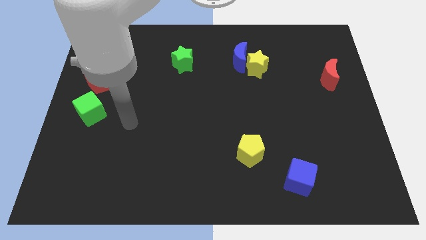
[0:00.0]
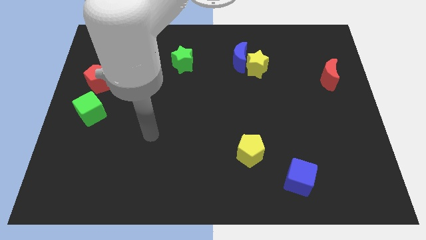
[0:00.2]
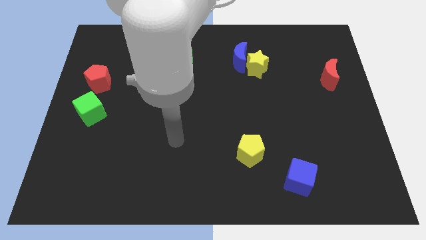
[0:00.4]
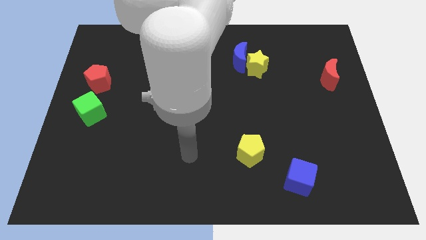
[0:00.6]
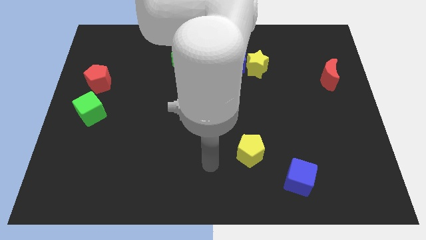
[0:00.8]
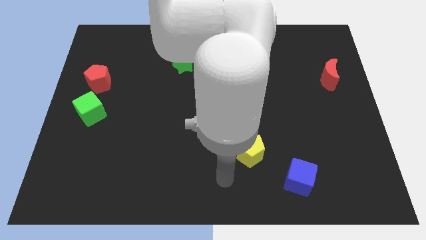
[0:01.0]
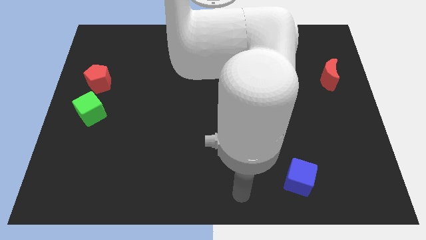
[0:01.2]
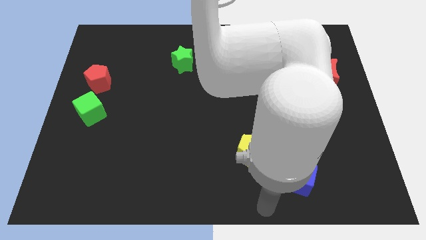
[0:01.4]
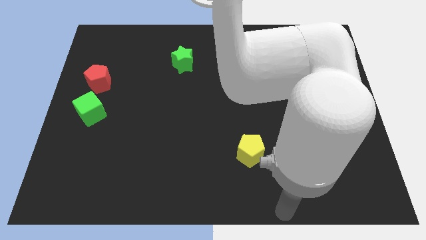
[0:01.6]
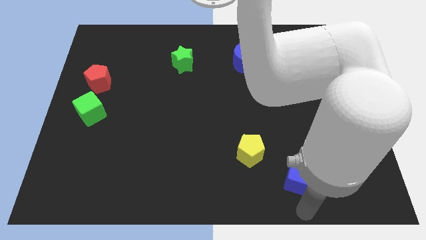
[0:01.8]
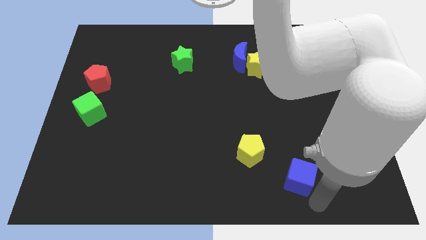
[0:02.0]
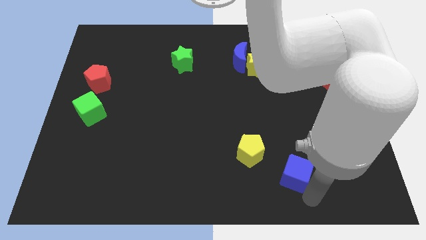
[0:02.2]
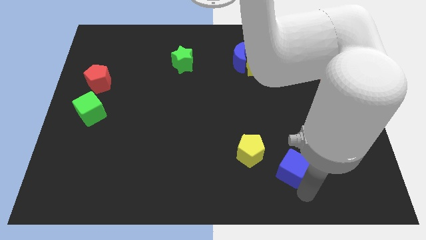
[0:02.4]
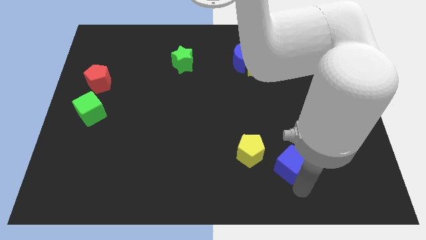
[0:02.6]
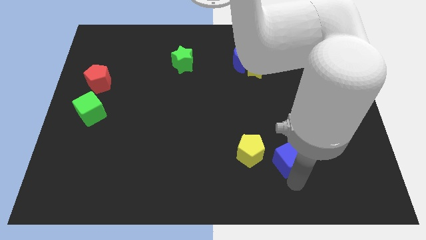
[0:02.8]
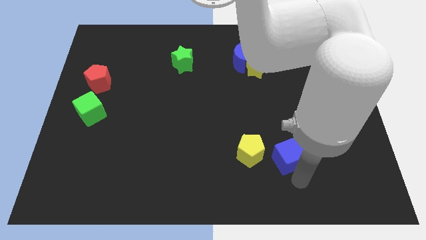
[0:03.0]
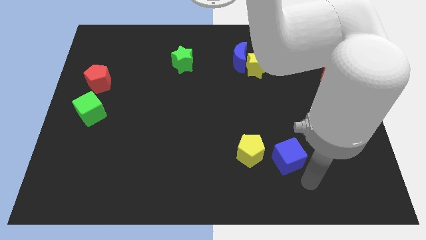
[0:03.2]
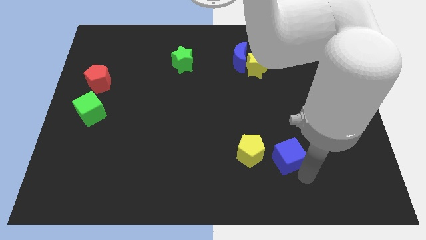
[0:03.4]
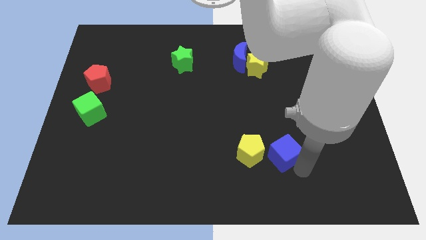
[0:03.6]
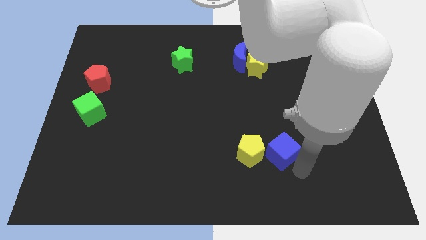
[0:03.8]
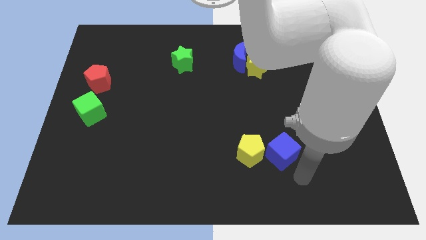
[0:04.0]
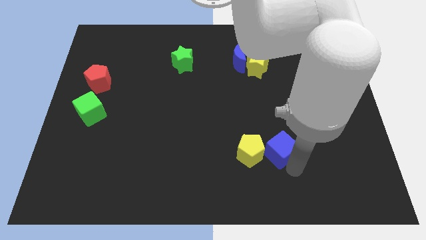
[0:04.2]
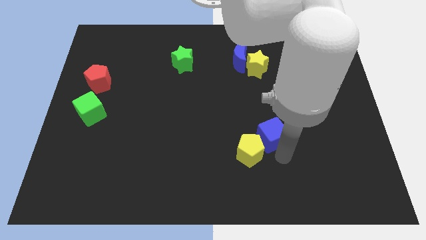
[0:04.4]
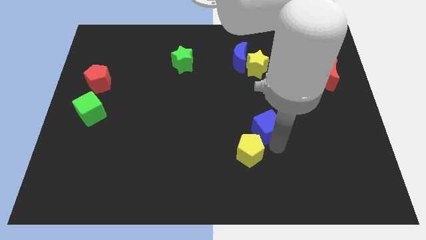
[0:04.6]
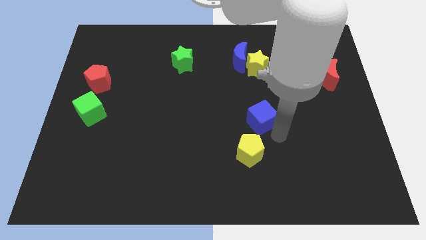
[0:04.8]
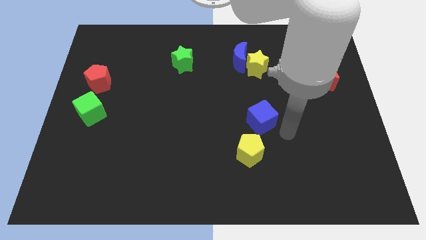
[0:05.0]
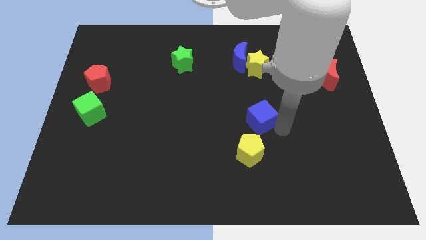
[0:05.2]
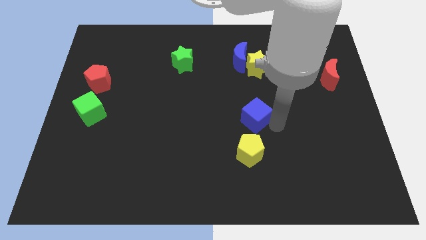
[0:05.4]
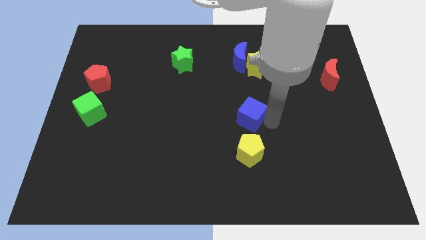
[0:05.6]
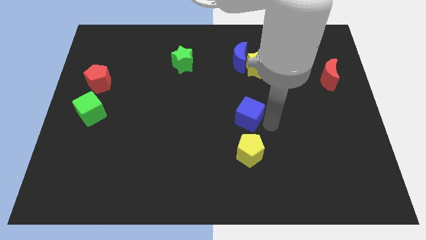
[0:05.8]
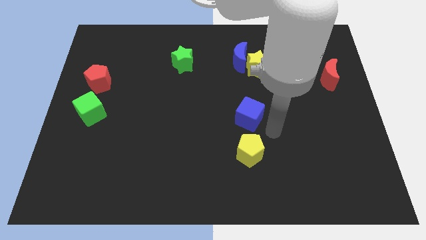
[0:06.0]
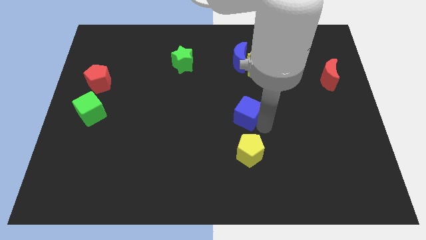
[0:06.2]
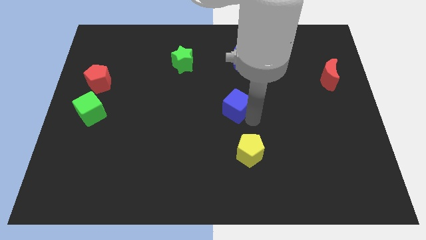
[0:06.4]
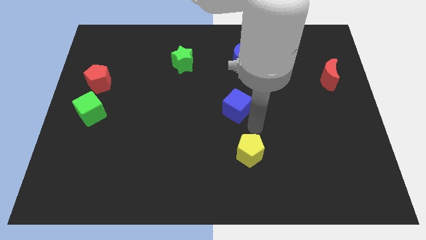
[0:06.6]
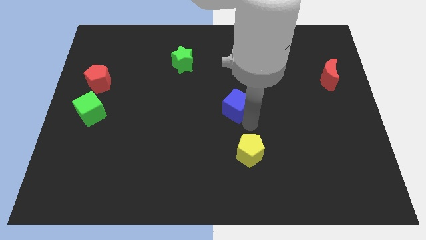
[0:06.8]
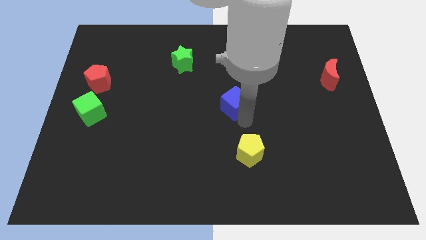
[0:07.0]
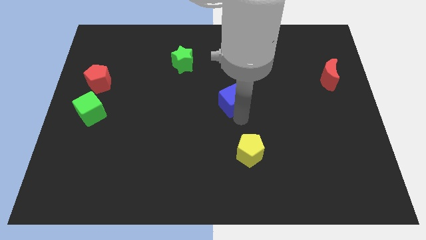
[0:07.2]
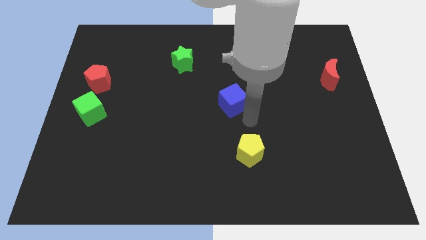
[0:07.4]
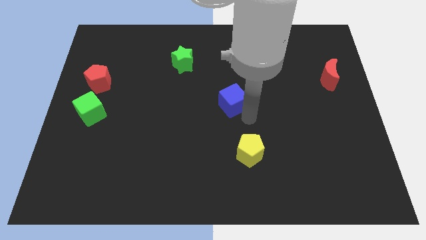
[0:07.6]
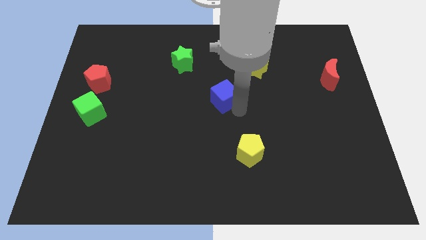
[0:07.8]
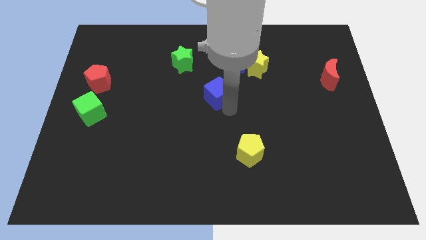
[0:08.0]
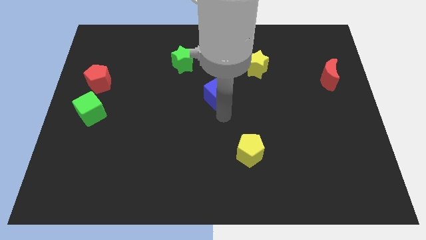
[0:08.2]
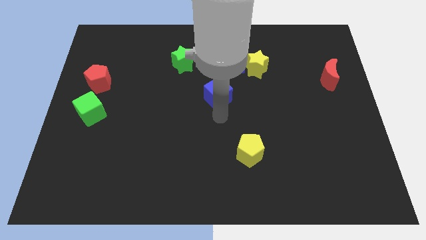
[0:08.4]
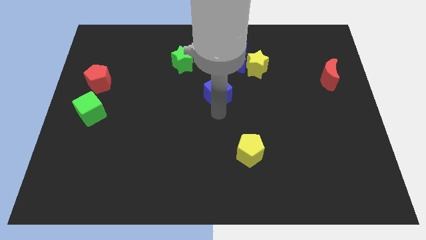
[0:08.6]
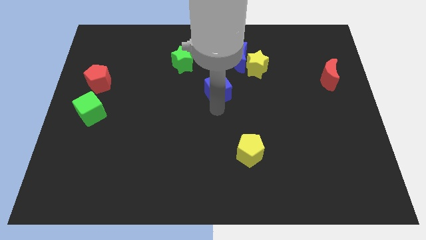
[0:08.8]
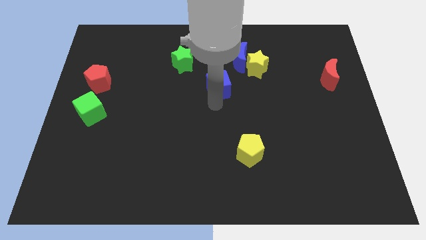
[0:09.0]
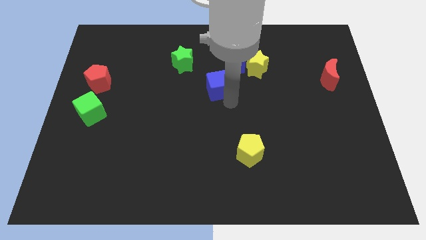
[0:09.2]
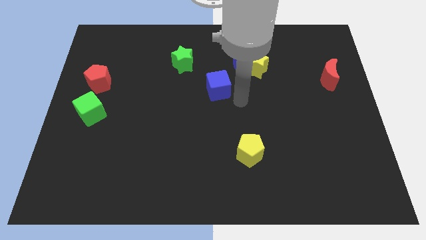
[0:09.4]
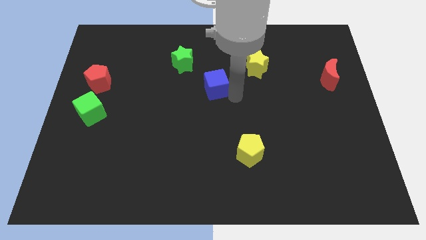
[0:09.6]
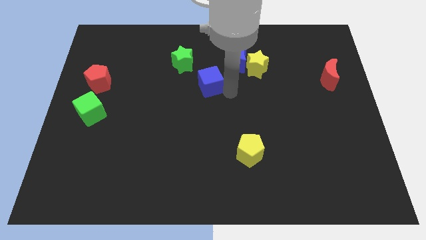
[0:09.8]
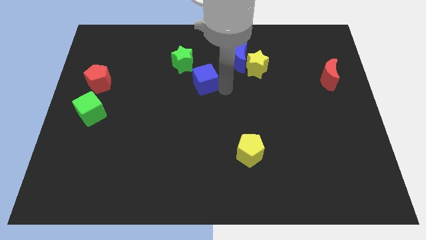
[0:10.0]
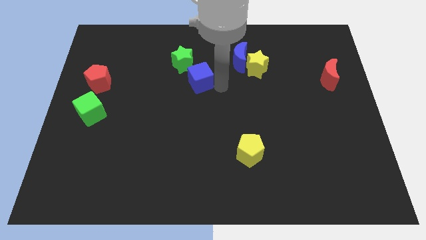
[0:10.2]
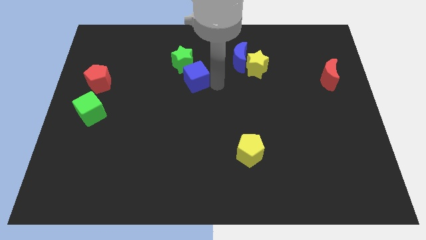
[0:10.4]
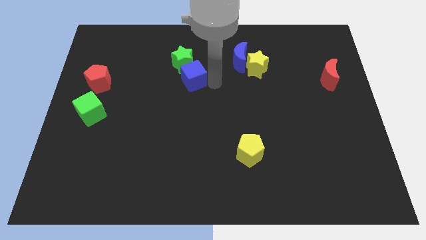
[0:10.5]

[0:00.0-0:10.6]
slide the blue cube close to the green star

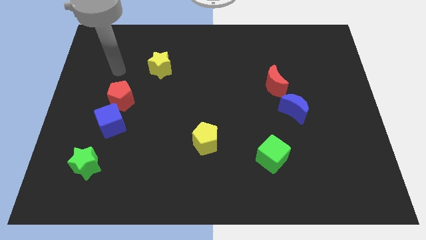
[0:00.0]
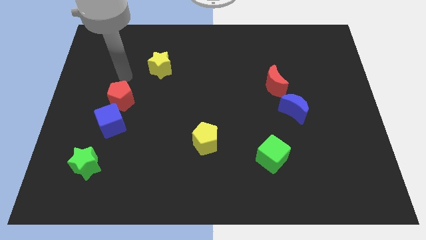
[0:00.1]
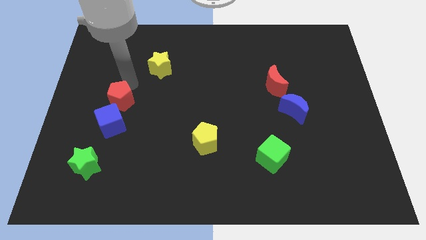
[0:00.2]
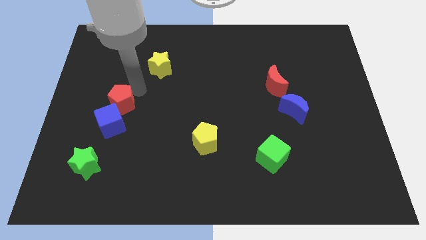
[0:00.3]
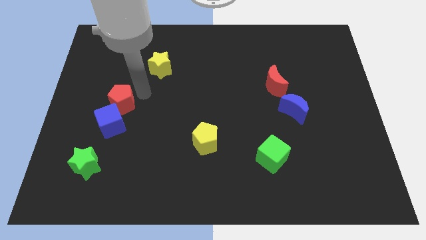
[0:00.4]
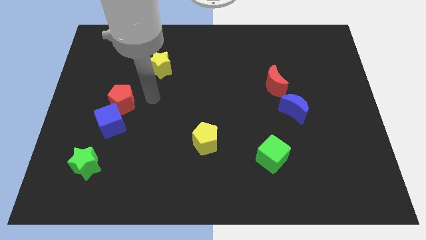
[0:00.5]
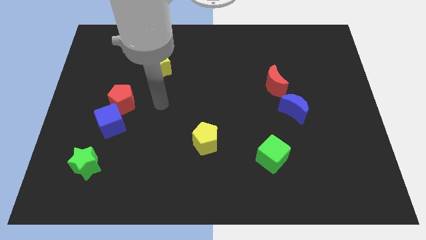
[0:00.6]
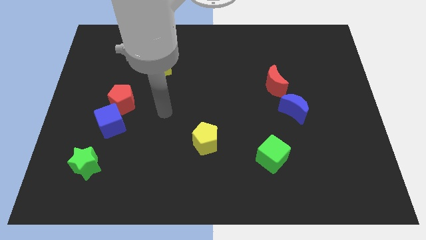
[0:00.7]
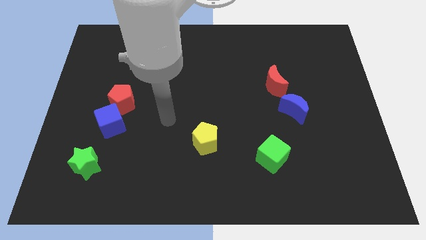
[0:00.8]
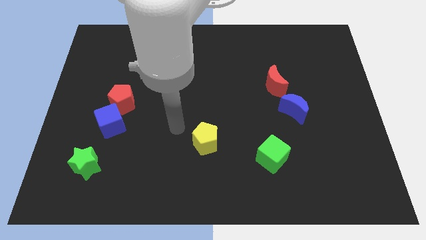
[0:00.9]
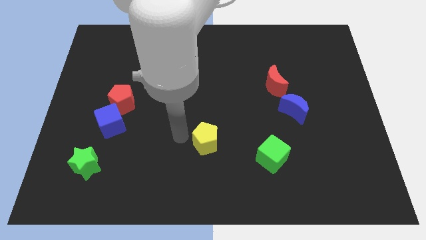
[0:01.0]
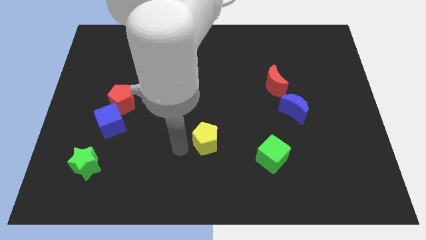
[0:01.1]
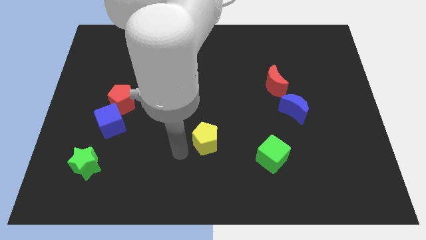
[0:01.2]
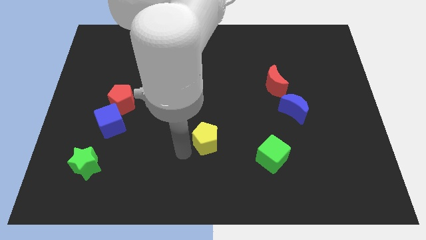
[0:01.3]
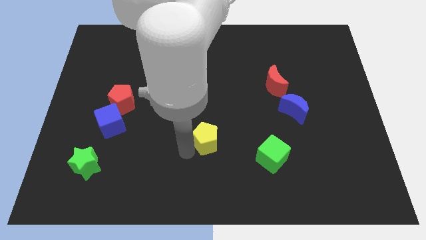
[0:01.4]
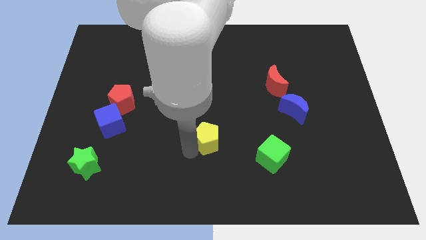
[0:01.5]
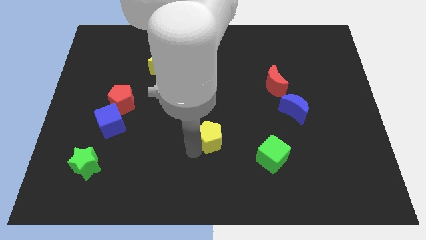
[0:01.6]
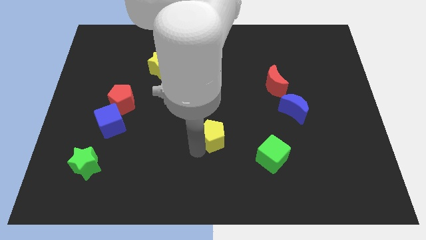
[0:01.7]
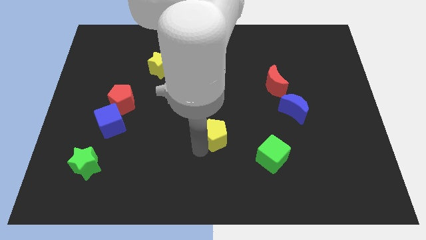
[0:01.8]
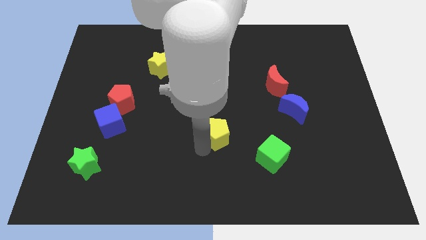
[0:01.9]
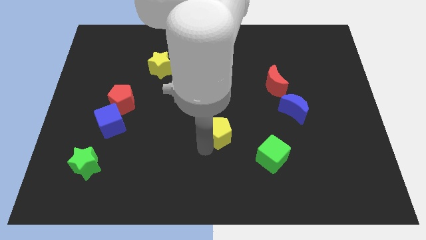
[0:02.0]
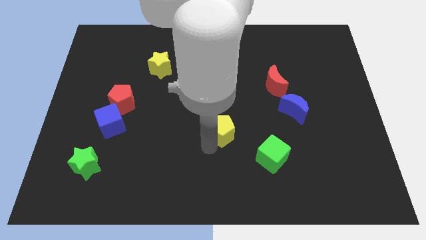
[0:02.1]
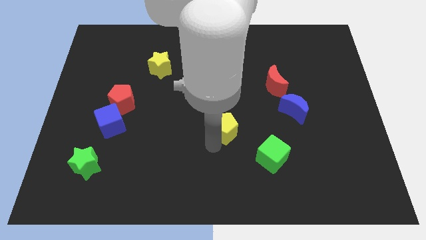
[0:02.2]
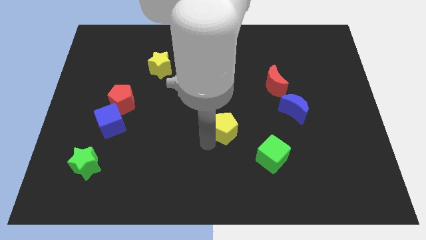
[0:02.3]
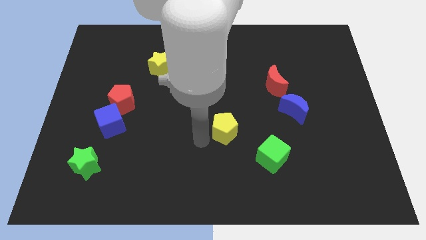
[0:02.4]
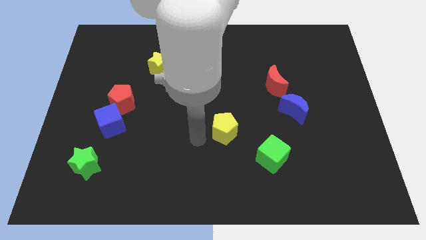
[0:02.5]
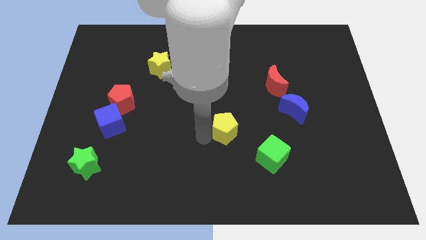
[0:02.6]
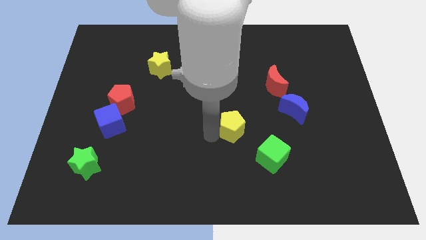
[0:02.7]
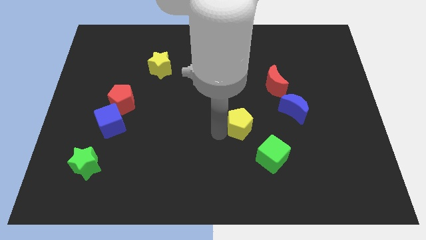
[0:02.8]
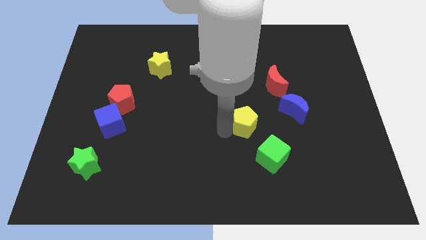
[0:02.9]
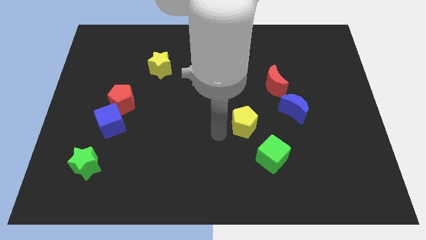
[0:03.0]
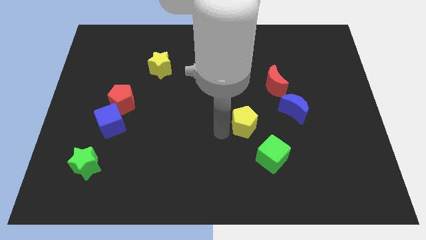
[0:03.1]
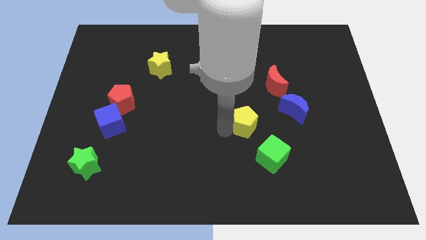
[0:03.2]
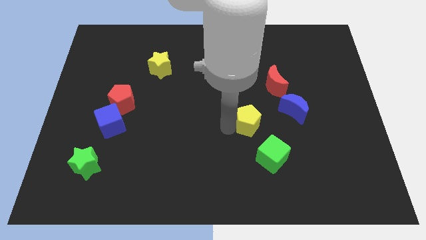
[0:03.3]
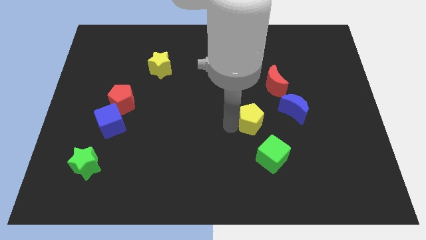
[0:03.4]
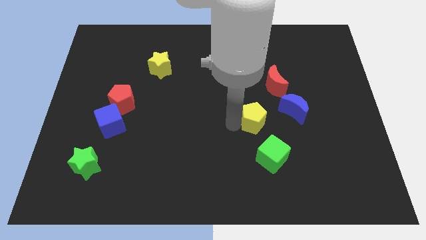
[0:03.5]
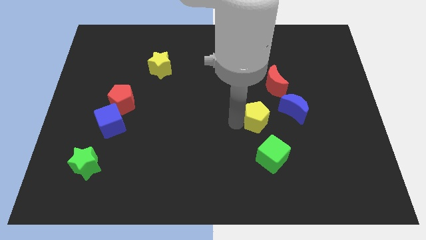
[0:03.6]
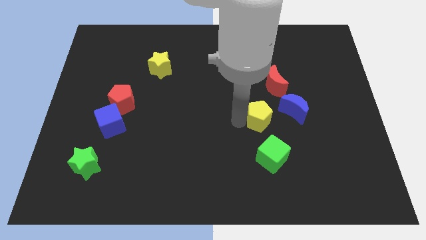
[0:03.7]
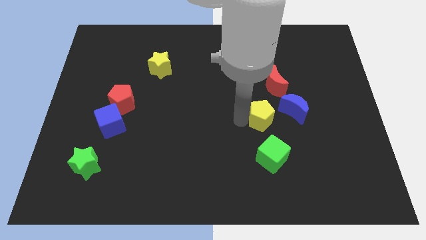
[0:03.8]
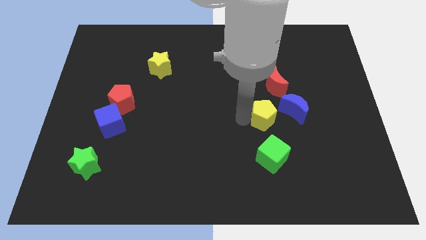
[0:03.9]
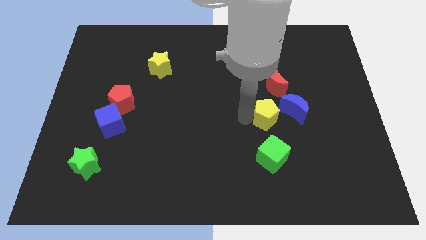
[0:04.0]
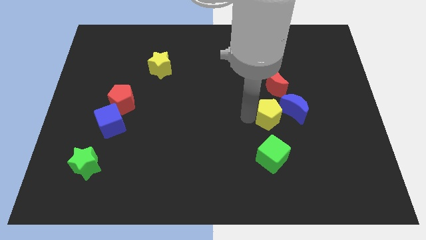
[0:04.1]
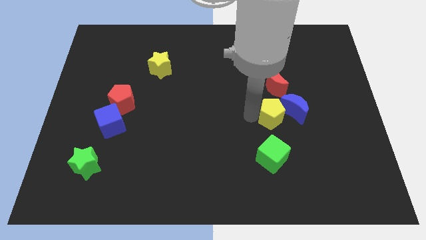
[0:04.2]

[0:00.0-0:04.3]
slide the yellow pentagon to the blue moon
